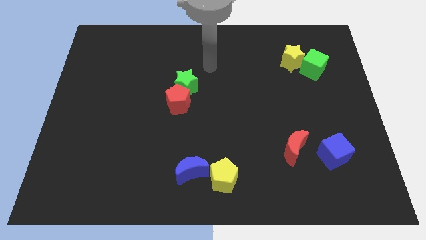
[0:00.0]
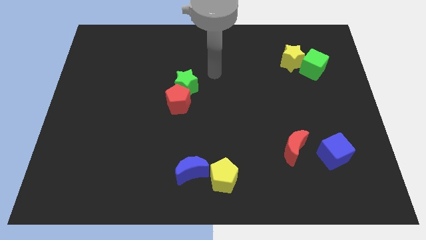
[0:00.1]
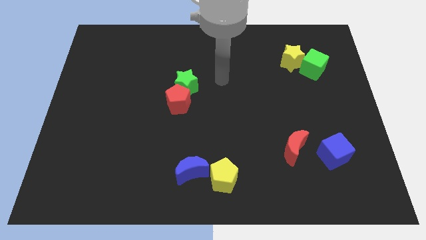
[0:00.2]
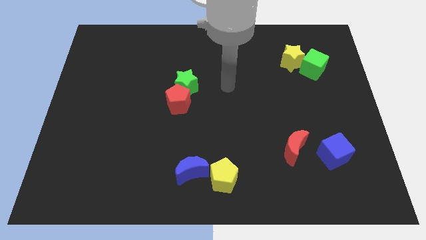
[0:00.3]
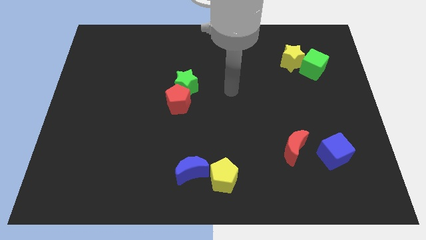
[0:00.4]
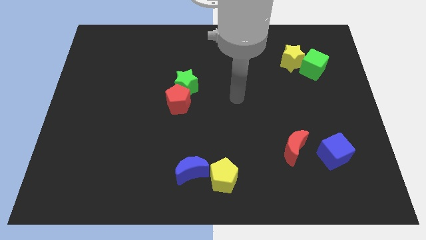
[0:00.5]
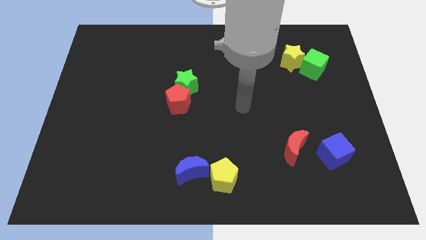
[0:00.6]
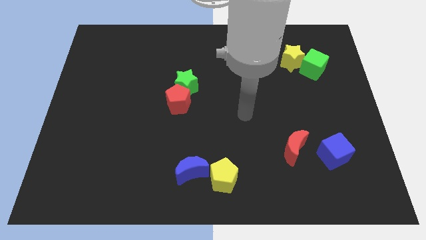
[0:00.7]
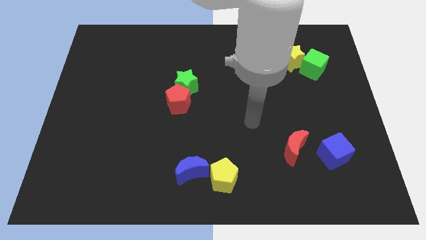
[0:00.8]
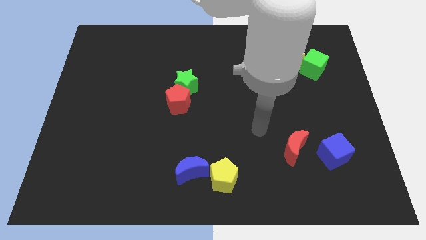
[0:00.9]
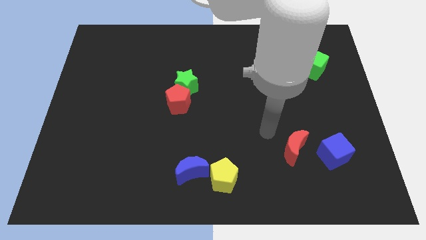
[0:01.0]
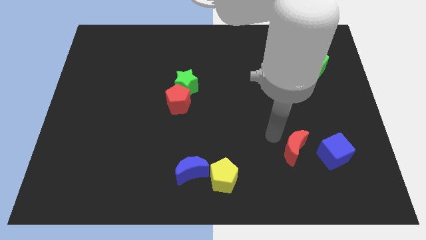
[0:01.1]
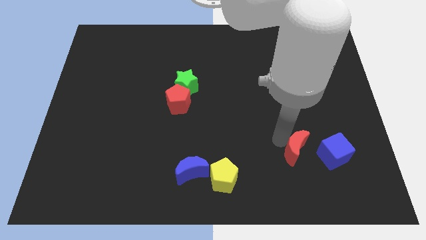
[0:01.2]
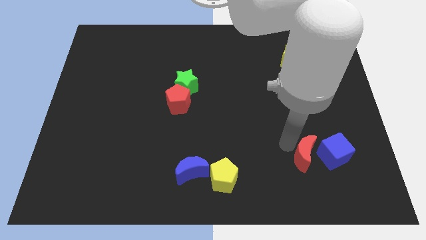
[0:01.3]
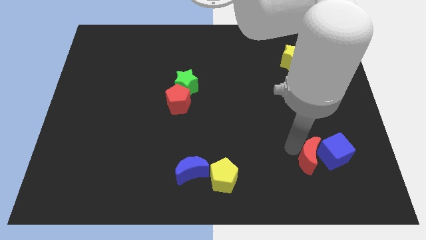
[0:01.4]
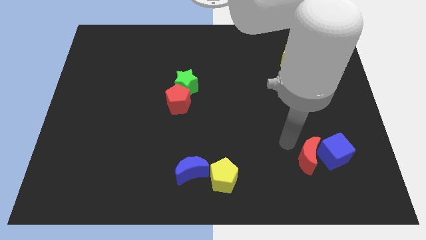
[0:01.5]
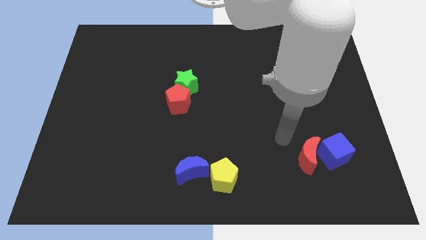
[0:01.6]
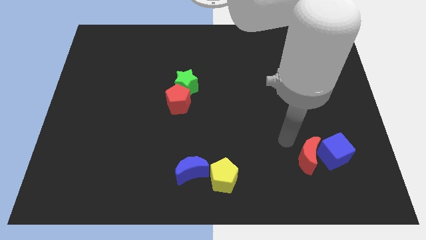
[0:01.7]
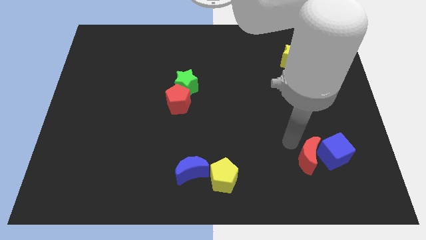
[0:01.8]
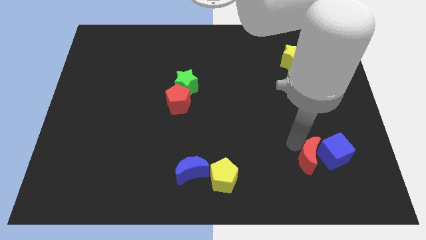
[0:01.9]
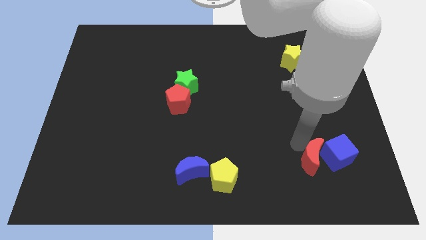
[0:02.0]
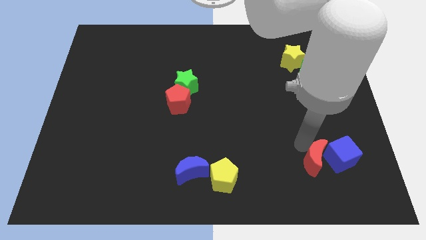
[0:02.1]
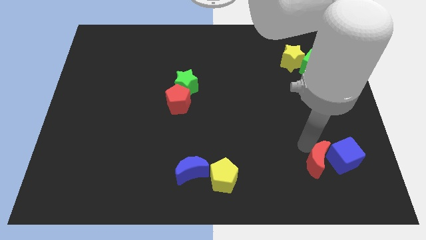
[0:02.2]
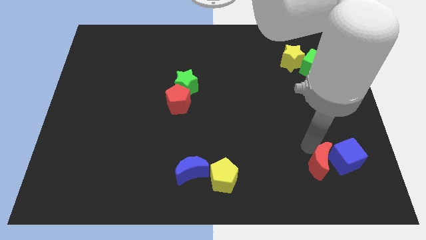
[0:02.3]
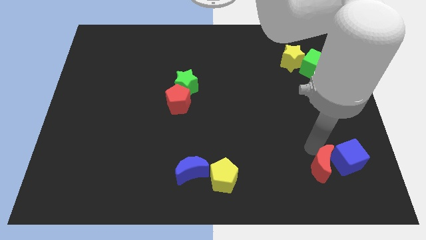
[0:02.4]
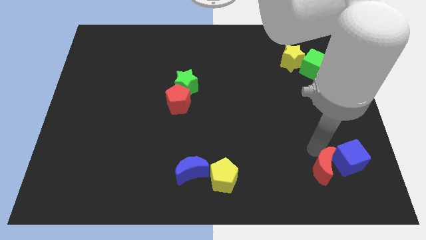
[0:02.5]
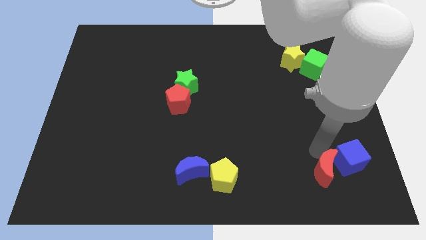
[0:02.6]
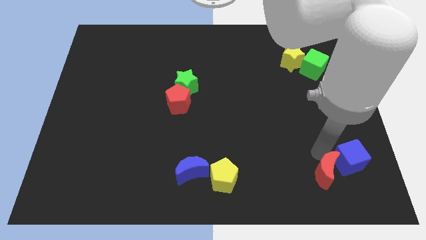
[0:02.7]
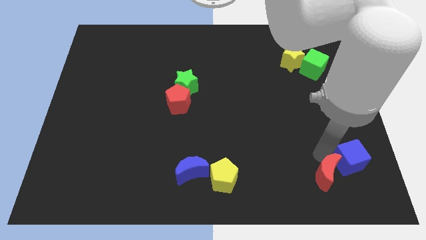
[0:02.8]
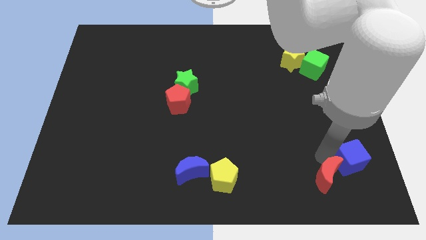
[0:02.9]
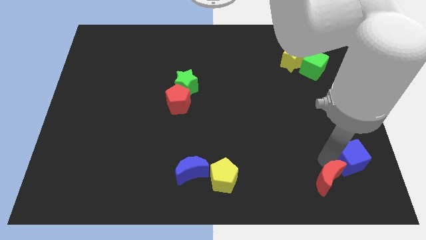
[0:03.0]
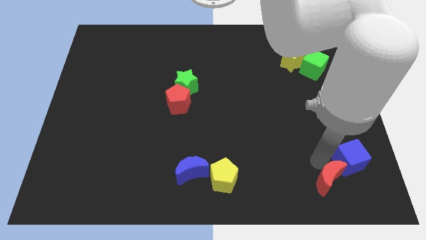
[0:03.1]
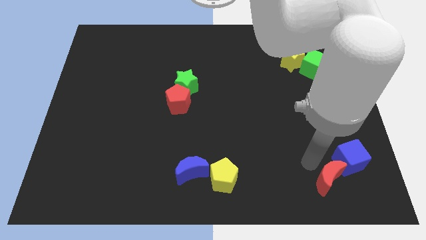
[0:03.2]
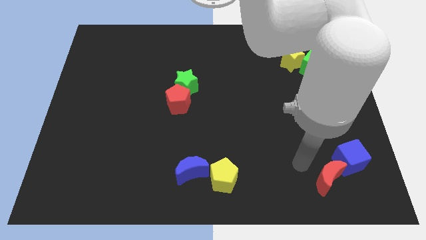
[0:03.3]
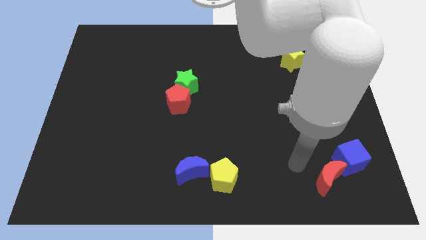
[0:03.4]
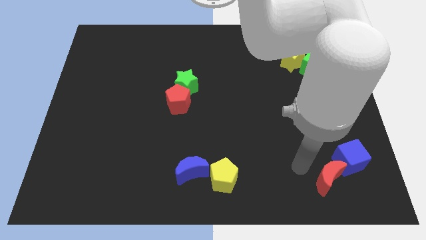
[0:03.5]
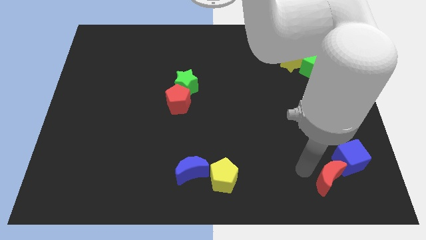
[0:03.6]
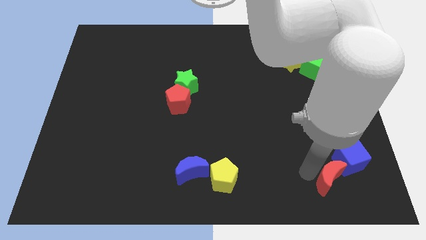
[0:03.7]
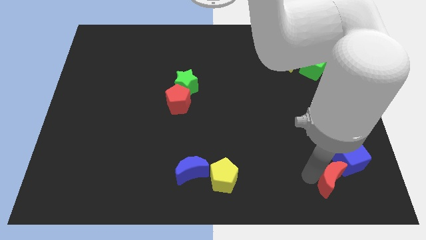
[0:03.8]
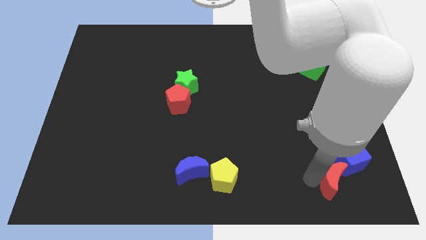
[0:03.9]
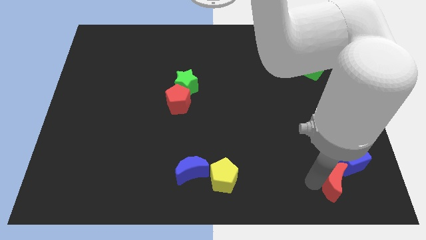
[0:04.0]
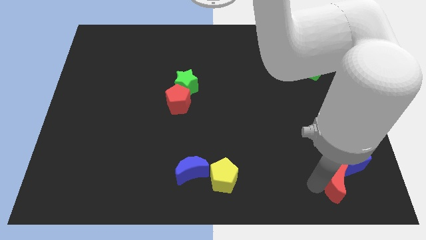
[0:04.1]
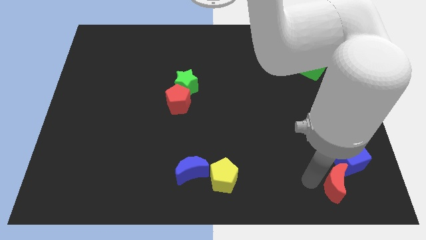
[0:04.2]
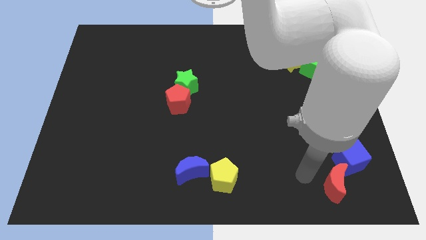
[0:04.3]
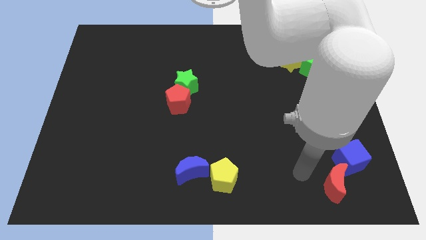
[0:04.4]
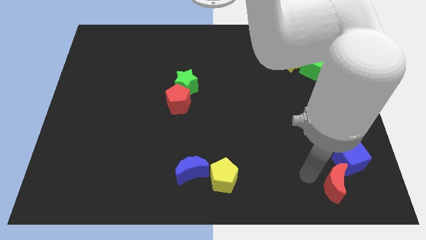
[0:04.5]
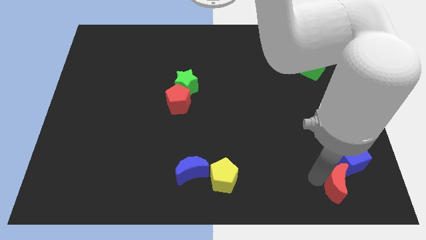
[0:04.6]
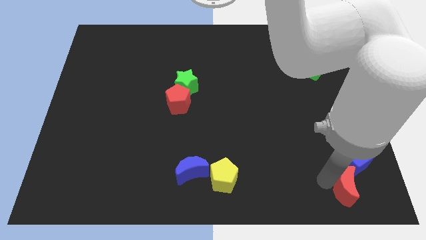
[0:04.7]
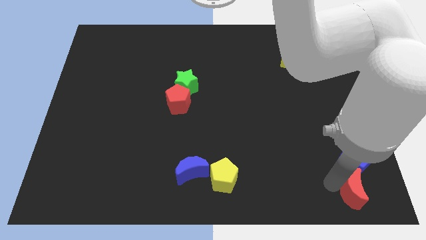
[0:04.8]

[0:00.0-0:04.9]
put the red moon to the bottom right

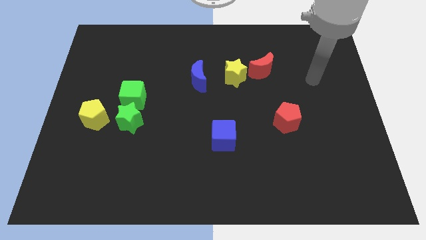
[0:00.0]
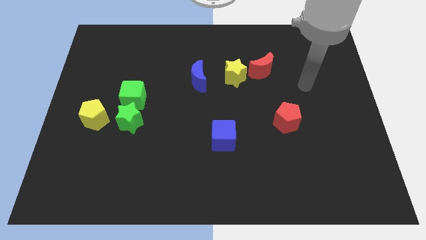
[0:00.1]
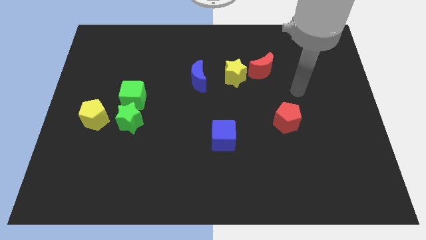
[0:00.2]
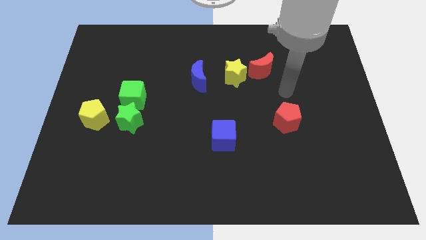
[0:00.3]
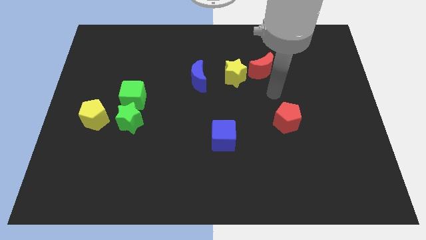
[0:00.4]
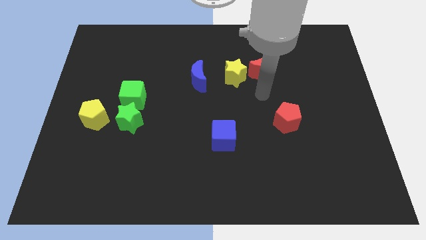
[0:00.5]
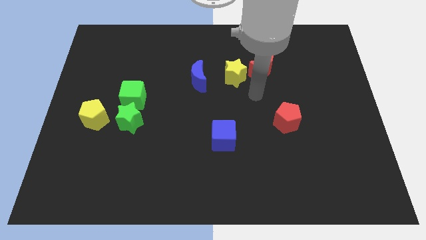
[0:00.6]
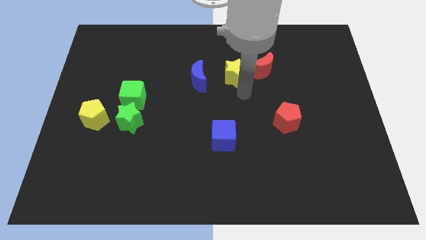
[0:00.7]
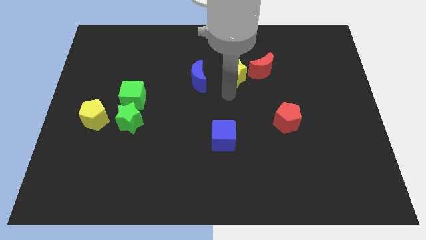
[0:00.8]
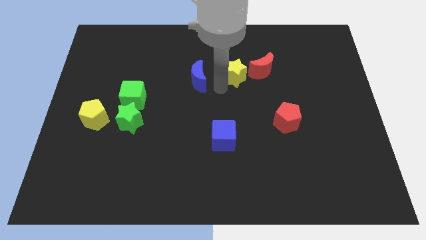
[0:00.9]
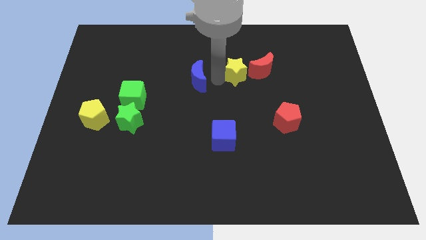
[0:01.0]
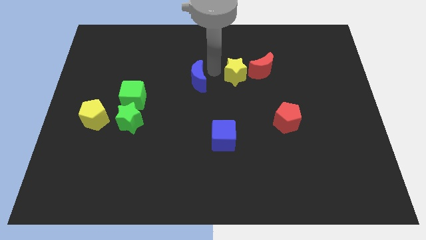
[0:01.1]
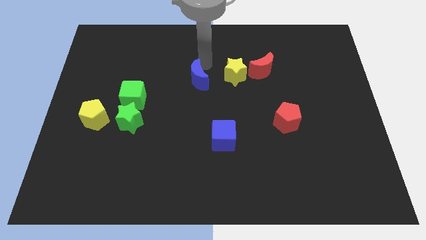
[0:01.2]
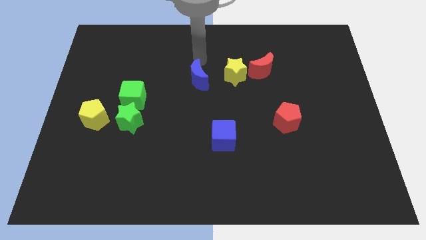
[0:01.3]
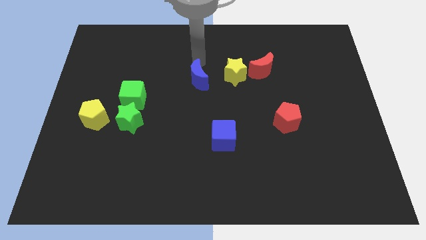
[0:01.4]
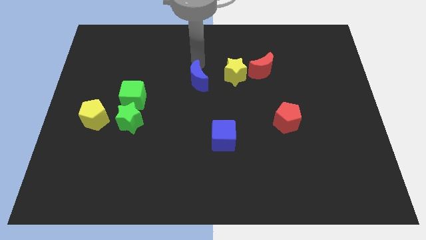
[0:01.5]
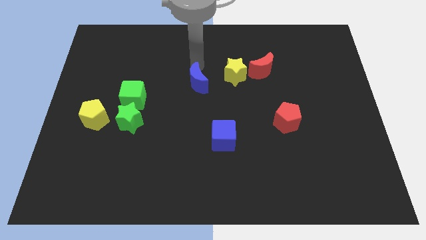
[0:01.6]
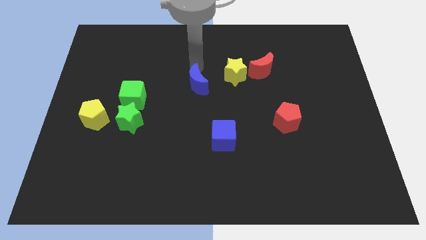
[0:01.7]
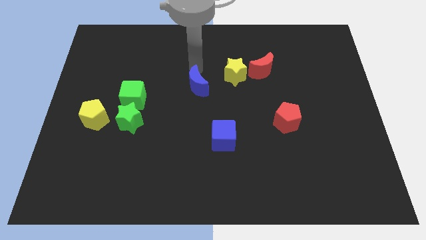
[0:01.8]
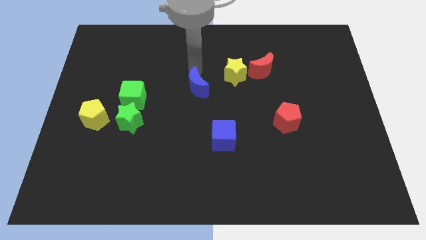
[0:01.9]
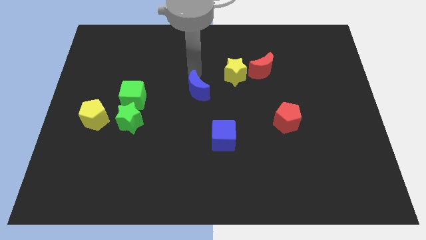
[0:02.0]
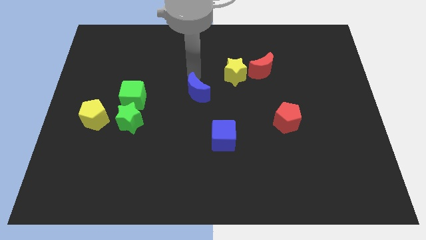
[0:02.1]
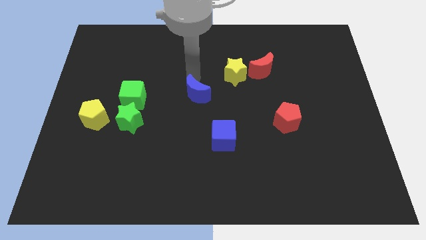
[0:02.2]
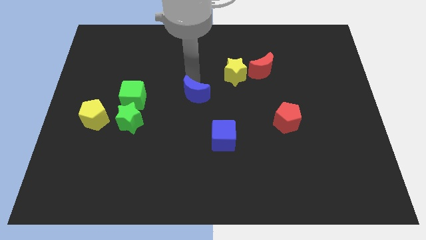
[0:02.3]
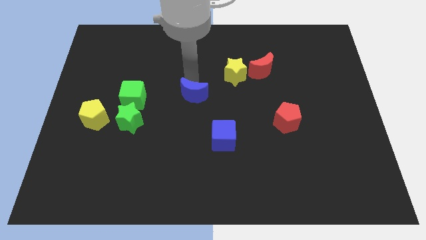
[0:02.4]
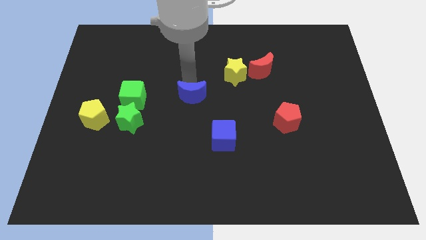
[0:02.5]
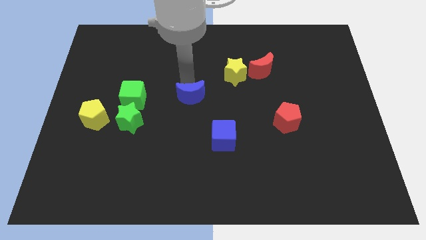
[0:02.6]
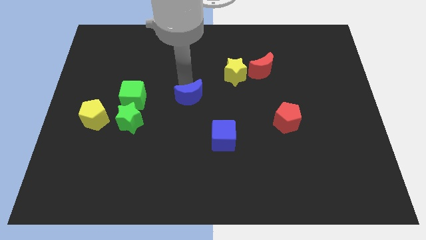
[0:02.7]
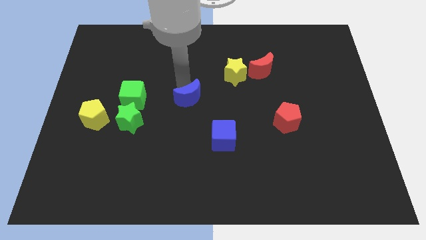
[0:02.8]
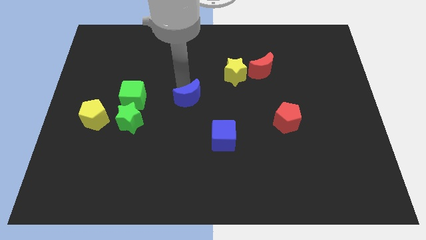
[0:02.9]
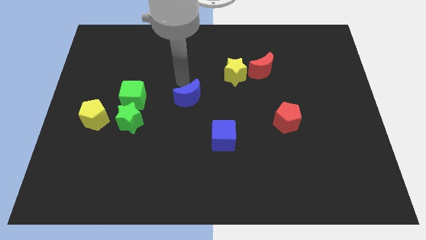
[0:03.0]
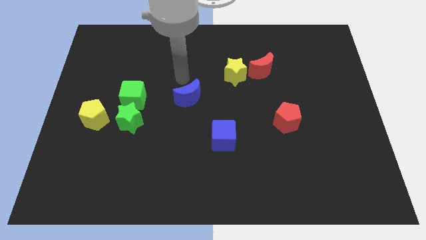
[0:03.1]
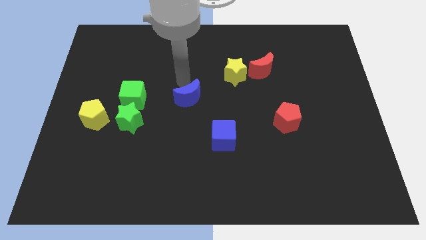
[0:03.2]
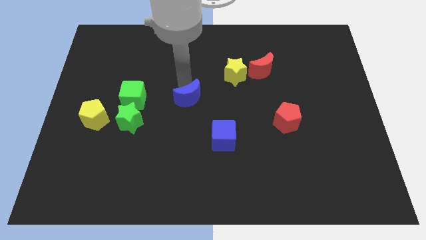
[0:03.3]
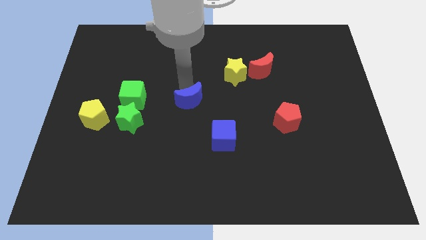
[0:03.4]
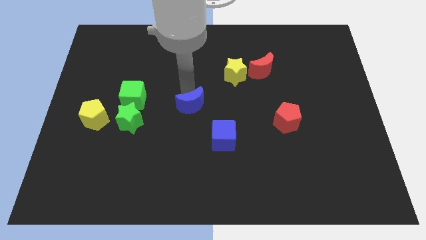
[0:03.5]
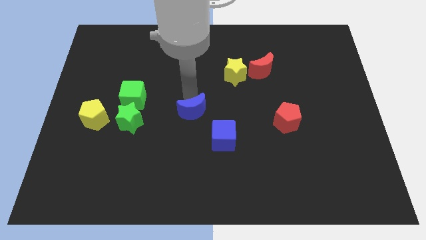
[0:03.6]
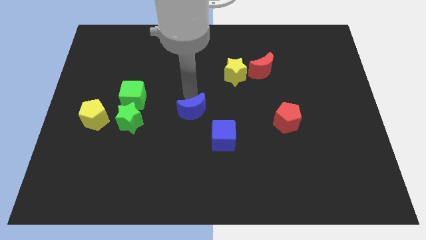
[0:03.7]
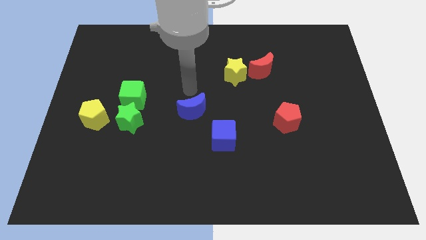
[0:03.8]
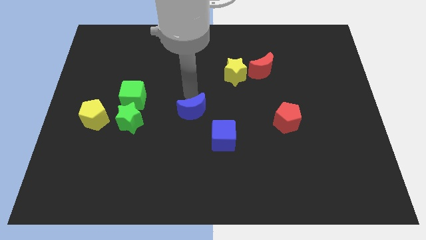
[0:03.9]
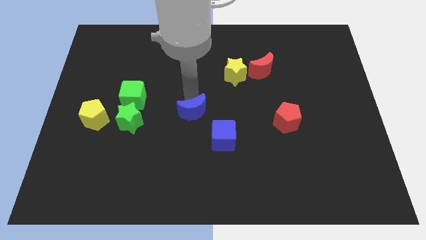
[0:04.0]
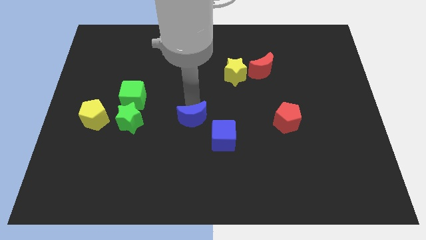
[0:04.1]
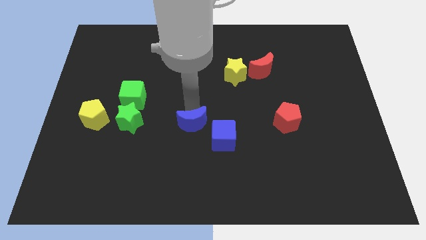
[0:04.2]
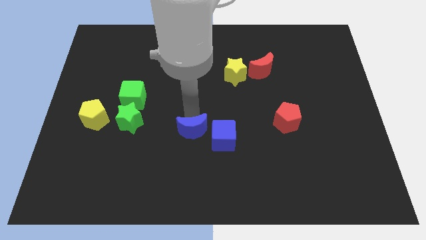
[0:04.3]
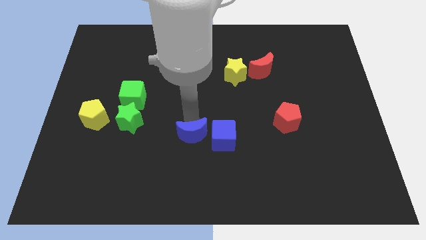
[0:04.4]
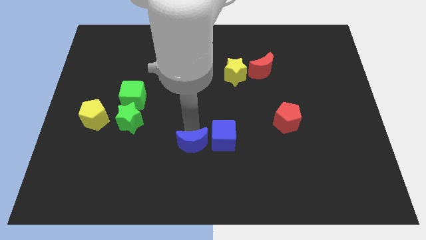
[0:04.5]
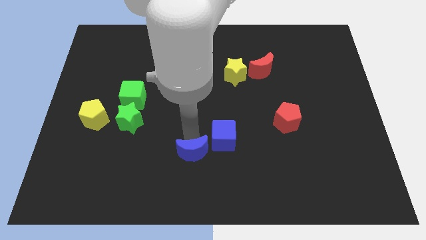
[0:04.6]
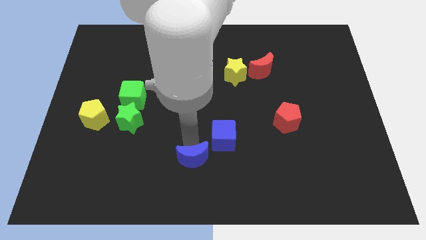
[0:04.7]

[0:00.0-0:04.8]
push the blue moon to the bottom
